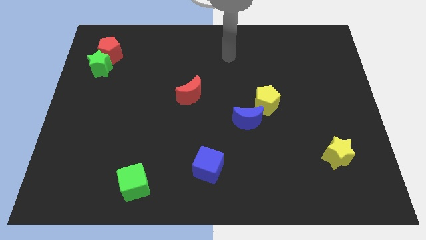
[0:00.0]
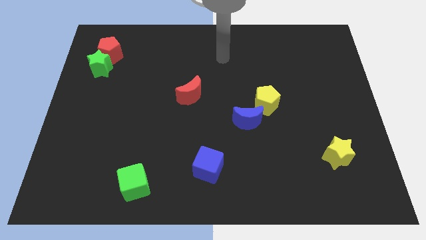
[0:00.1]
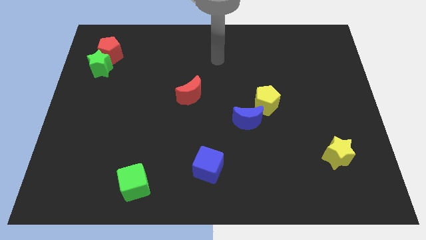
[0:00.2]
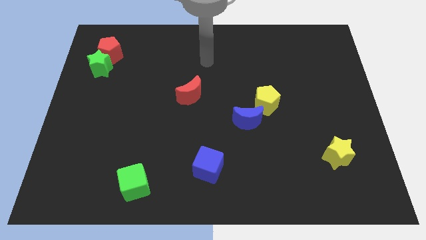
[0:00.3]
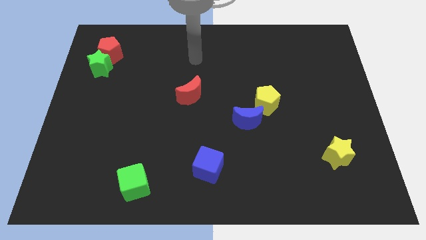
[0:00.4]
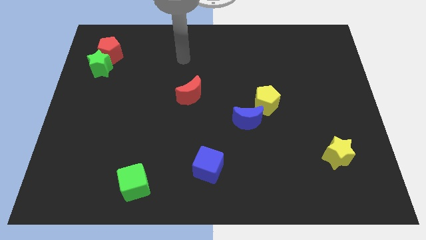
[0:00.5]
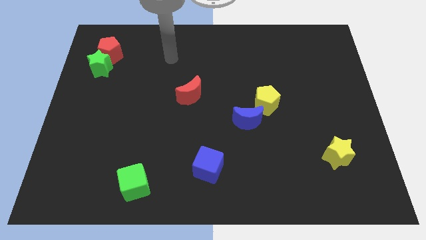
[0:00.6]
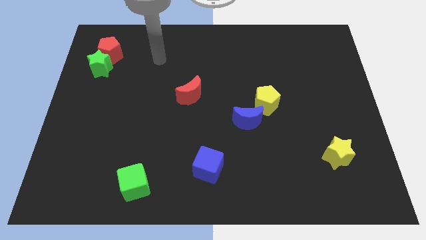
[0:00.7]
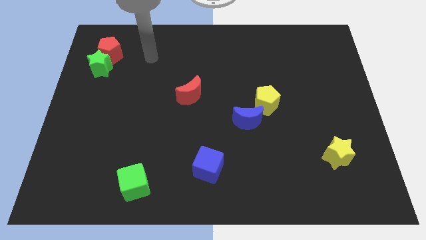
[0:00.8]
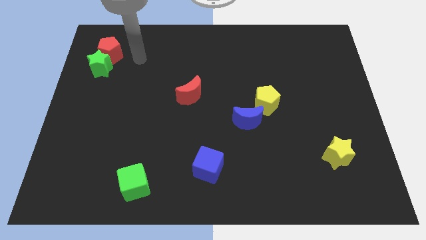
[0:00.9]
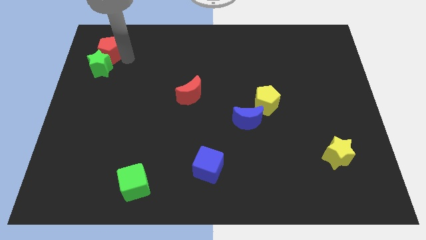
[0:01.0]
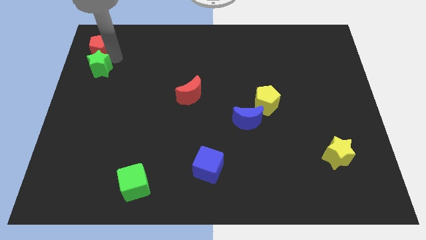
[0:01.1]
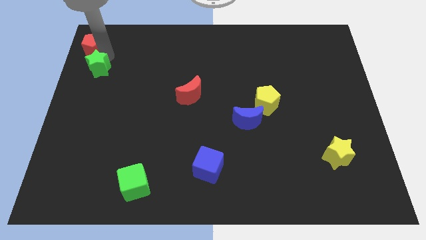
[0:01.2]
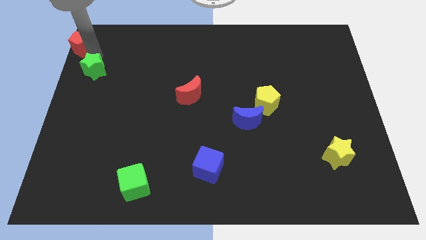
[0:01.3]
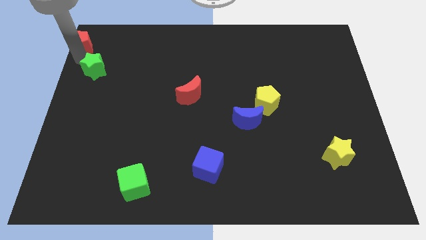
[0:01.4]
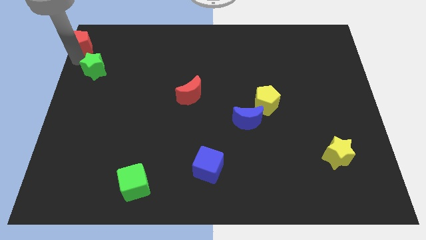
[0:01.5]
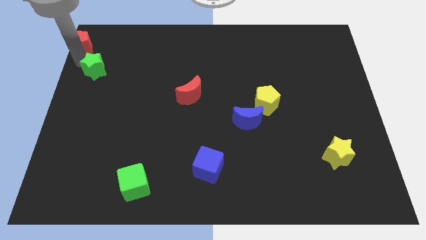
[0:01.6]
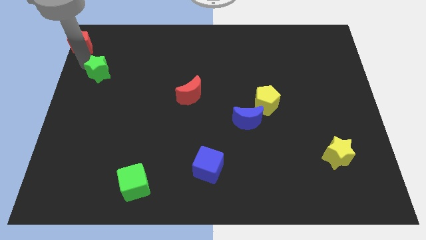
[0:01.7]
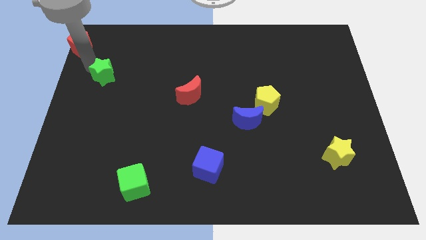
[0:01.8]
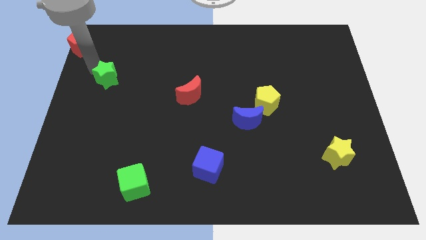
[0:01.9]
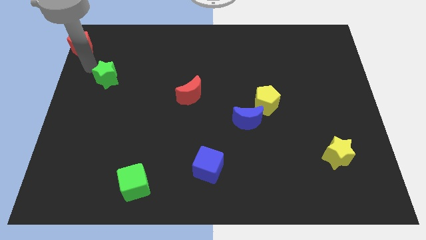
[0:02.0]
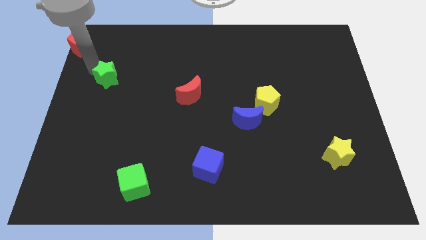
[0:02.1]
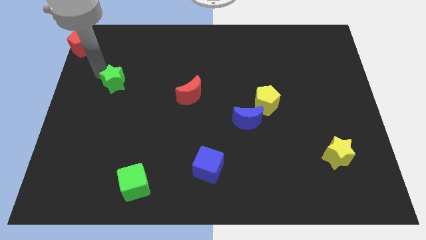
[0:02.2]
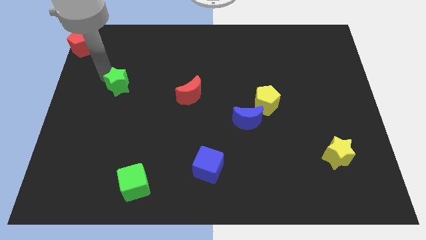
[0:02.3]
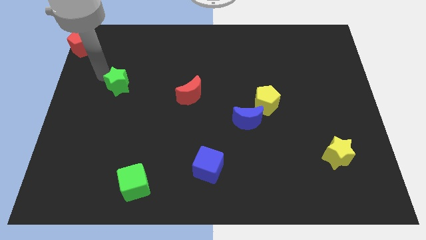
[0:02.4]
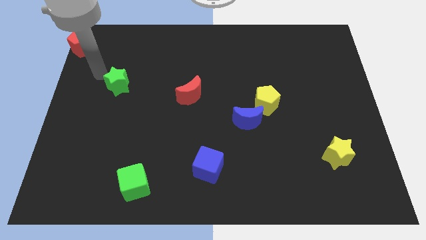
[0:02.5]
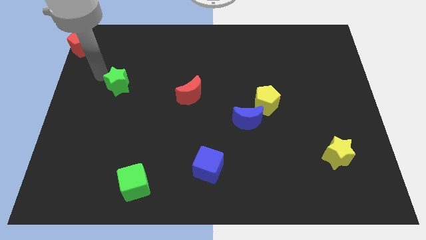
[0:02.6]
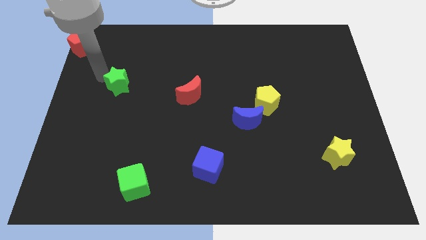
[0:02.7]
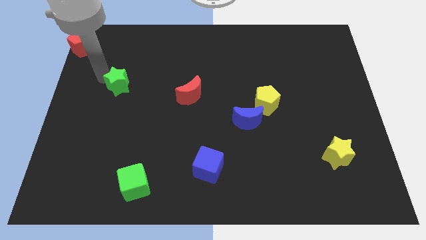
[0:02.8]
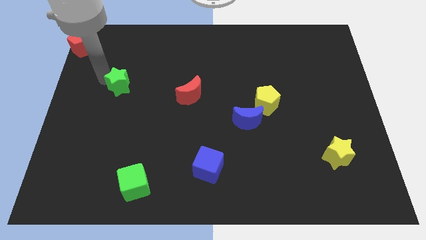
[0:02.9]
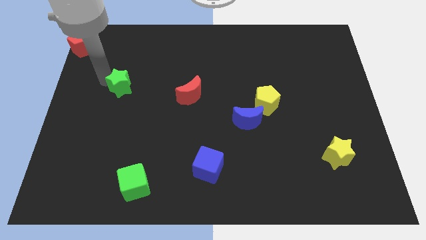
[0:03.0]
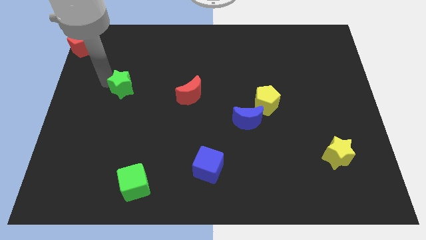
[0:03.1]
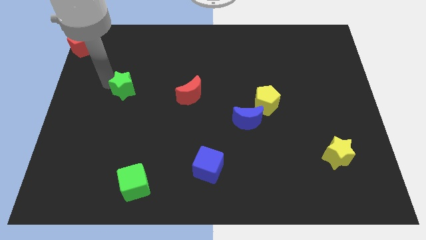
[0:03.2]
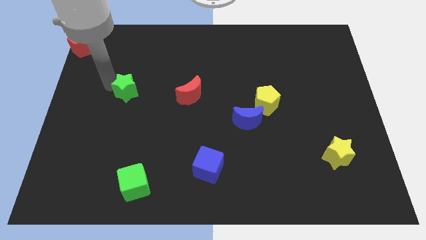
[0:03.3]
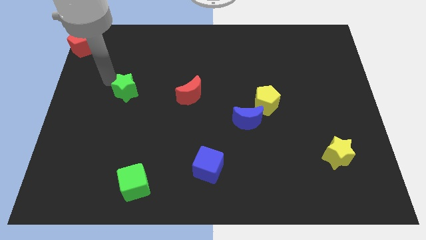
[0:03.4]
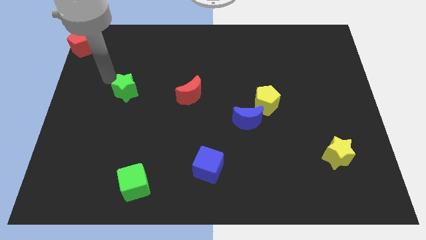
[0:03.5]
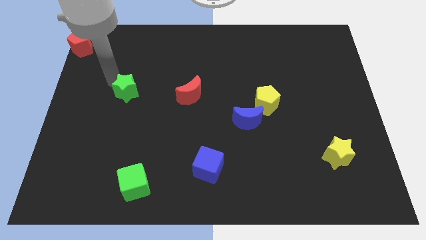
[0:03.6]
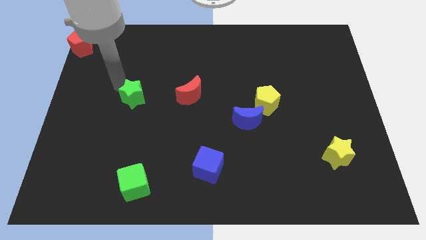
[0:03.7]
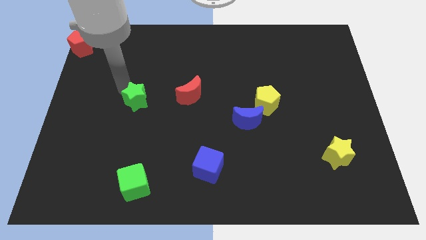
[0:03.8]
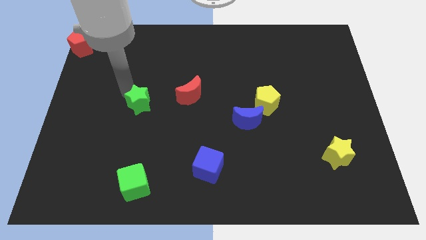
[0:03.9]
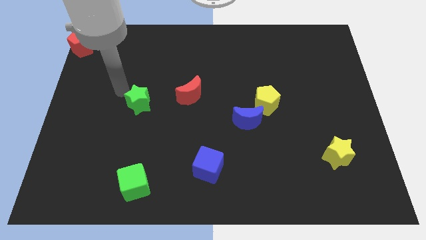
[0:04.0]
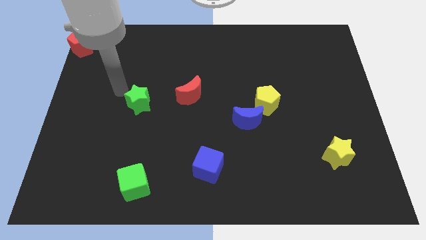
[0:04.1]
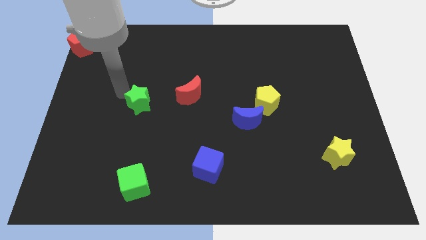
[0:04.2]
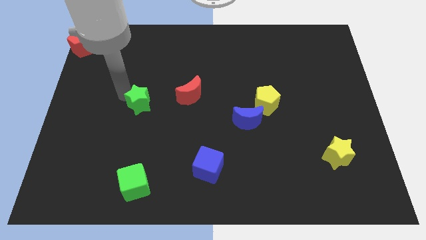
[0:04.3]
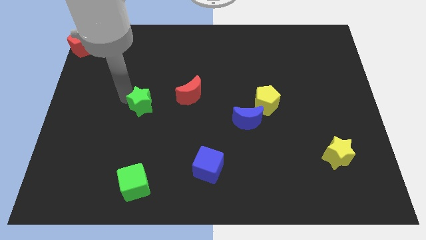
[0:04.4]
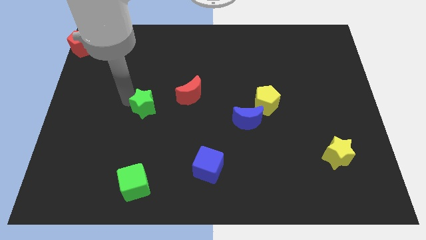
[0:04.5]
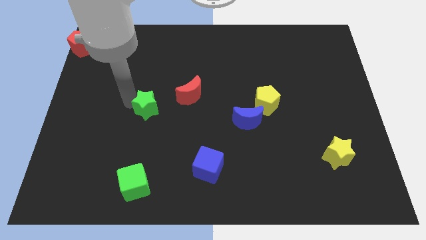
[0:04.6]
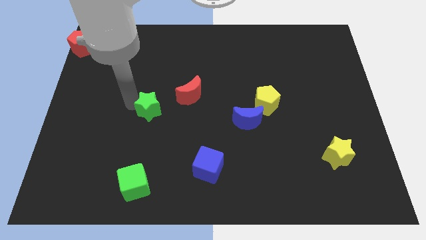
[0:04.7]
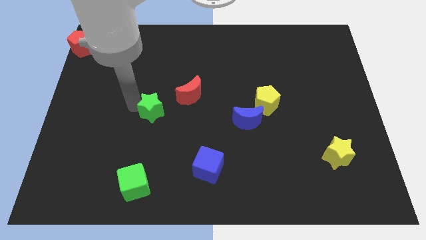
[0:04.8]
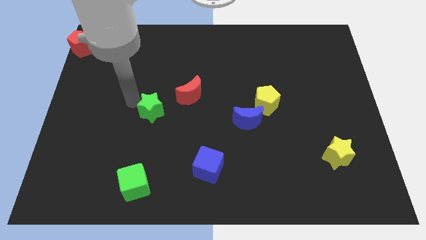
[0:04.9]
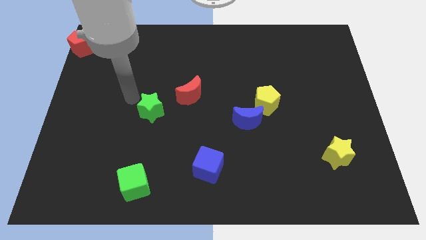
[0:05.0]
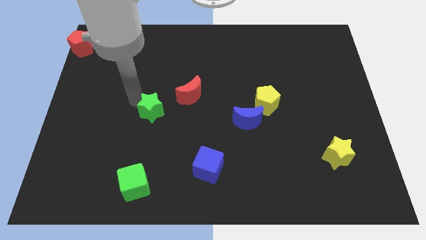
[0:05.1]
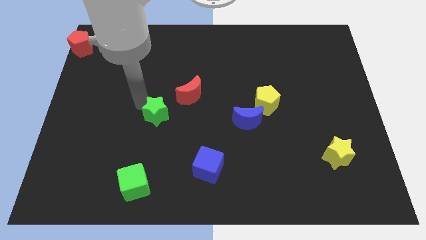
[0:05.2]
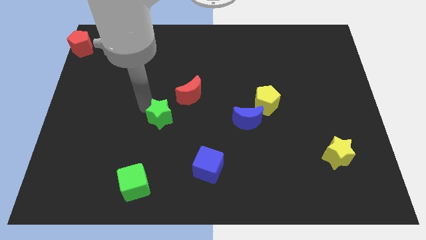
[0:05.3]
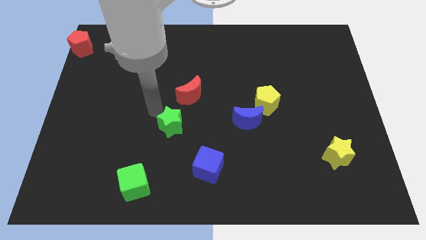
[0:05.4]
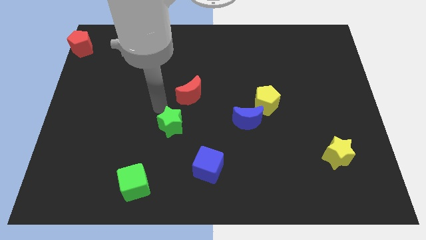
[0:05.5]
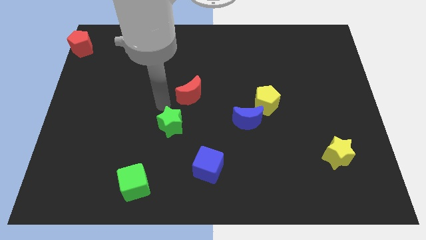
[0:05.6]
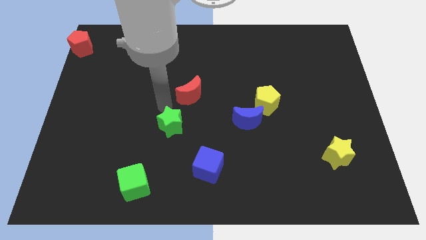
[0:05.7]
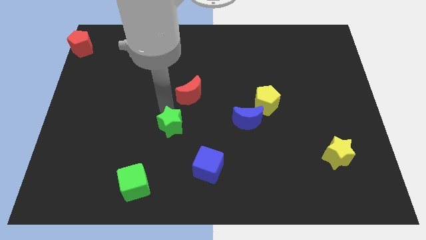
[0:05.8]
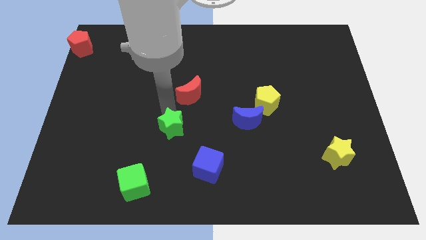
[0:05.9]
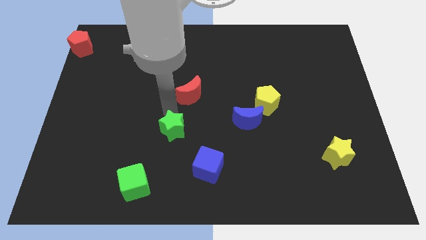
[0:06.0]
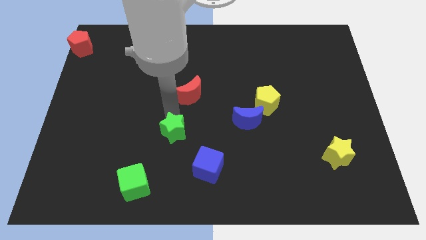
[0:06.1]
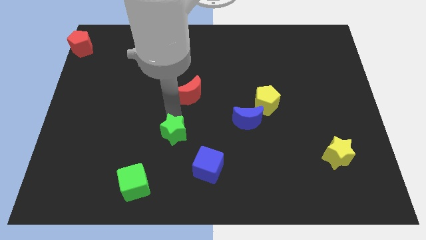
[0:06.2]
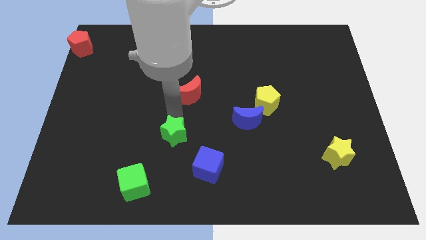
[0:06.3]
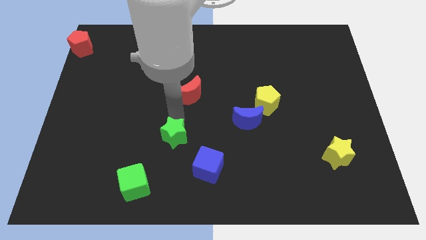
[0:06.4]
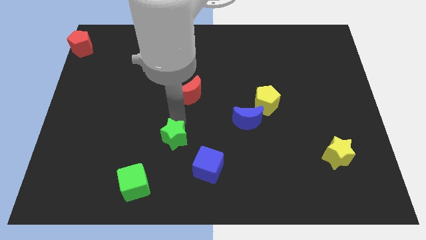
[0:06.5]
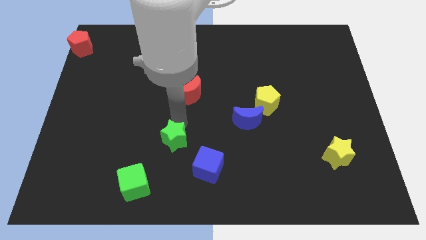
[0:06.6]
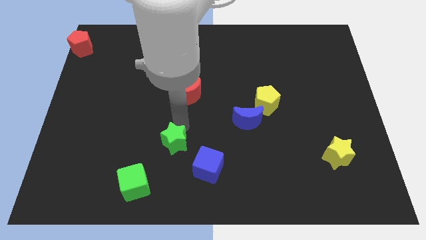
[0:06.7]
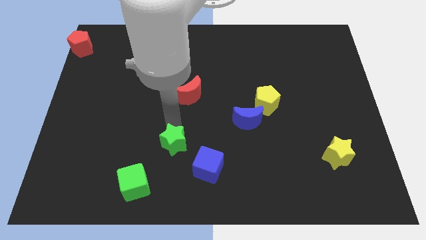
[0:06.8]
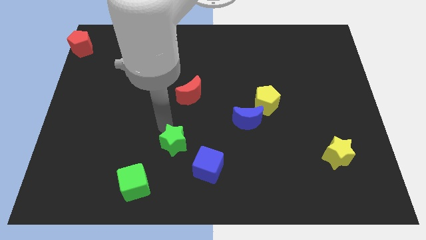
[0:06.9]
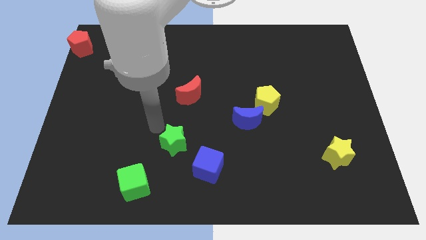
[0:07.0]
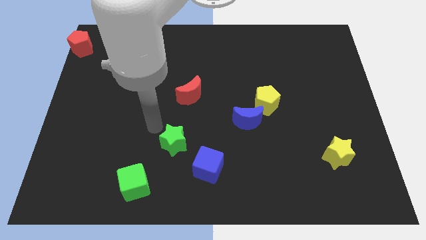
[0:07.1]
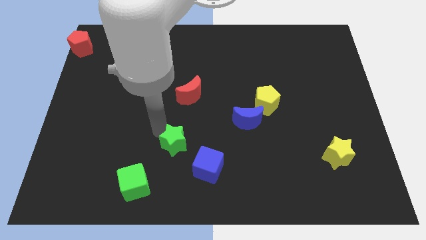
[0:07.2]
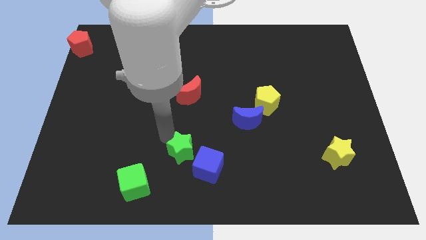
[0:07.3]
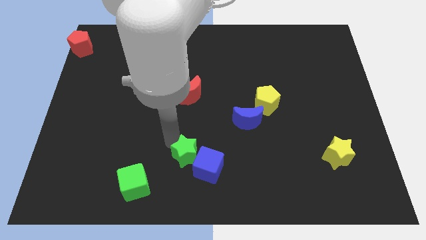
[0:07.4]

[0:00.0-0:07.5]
push the green star to the blue cube
